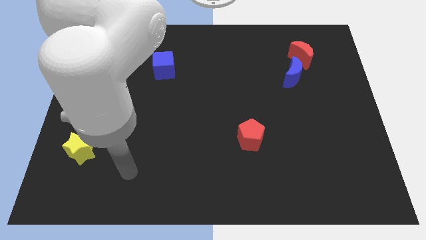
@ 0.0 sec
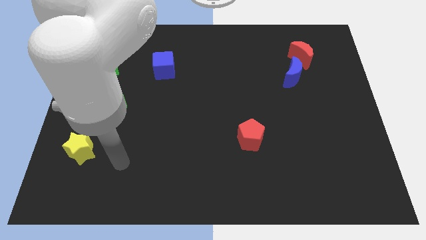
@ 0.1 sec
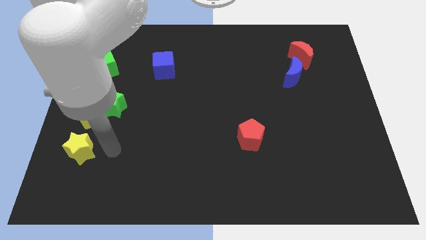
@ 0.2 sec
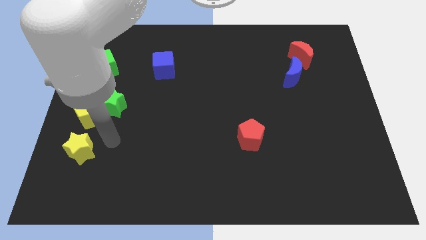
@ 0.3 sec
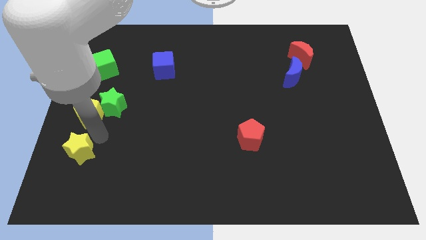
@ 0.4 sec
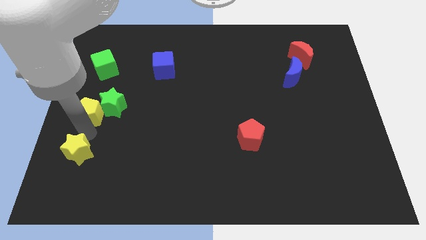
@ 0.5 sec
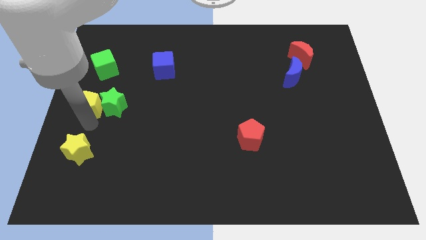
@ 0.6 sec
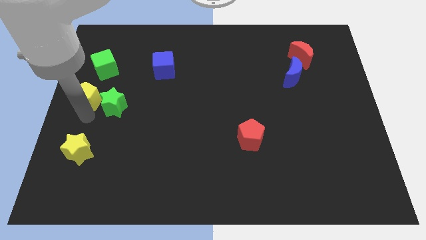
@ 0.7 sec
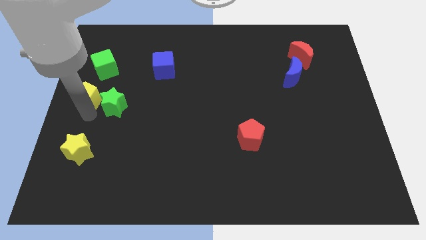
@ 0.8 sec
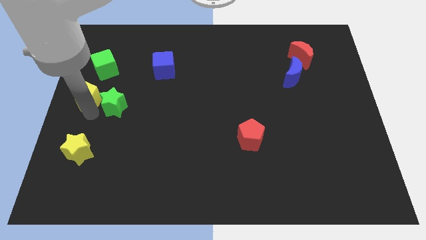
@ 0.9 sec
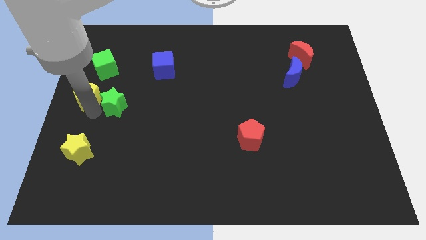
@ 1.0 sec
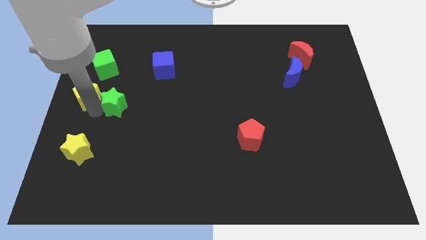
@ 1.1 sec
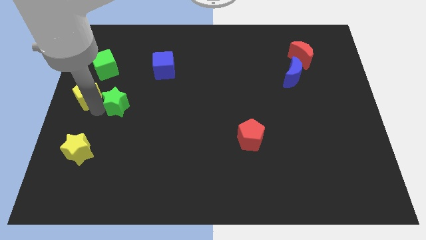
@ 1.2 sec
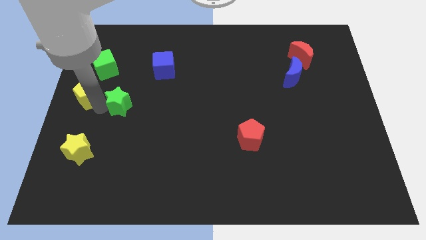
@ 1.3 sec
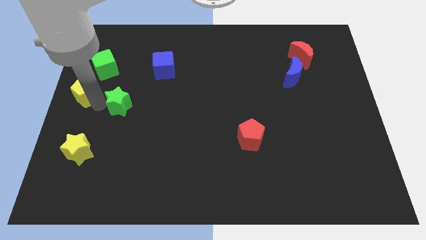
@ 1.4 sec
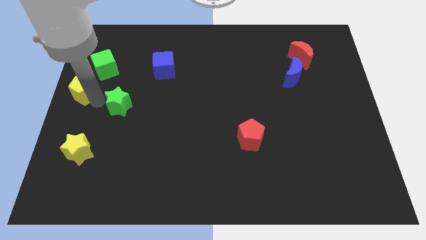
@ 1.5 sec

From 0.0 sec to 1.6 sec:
move the green star away from the yellow pentagon

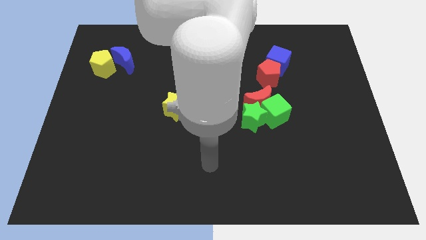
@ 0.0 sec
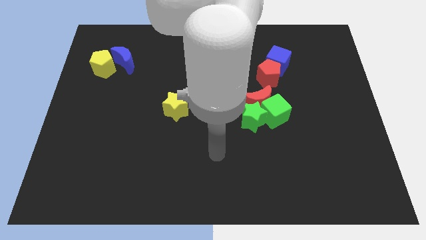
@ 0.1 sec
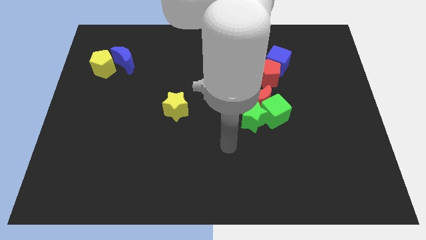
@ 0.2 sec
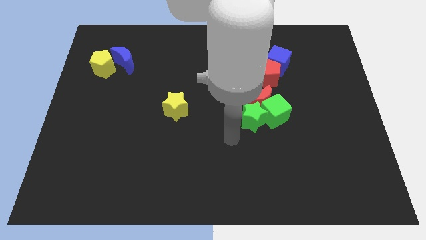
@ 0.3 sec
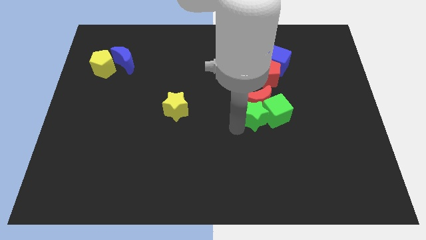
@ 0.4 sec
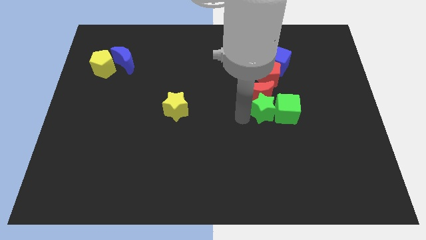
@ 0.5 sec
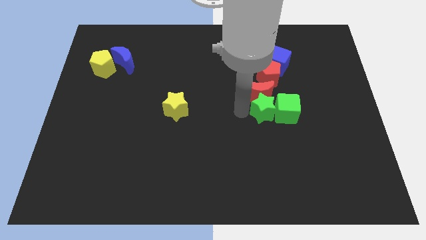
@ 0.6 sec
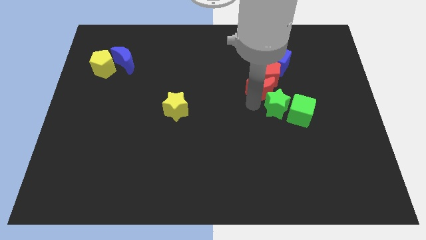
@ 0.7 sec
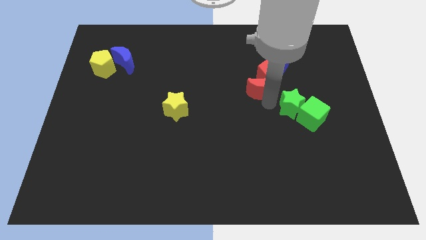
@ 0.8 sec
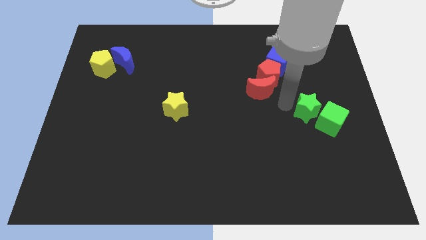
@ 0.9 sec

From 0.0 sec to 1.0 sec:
move the green cube away from the red moon and green star

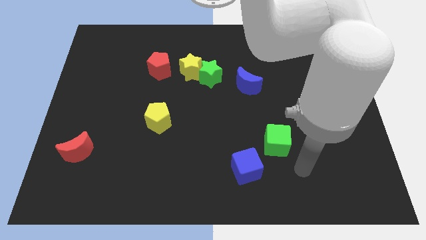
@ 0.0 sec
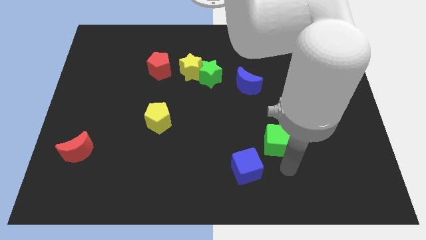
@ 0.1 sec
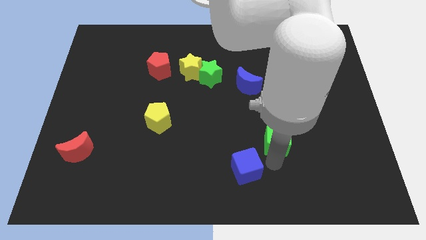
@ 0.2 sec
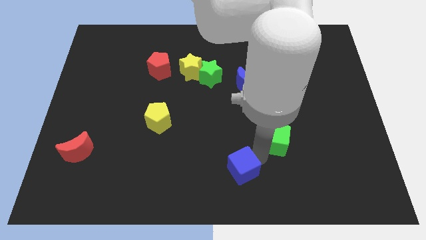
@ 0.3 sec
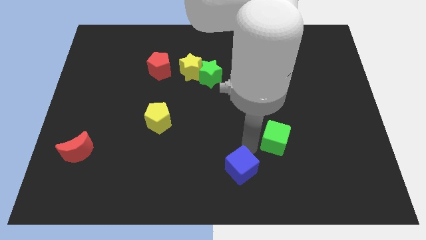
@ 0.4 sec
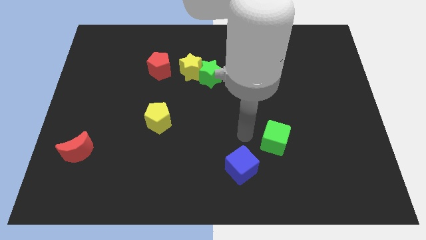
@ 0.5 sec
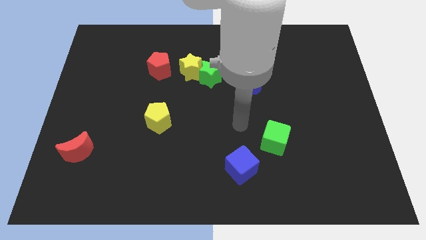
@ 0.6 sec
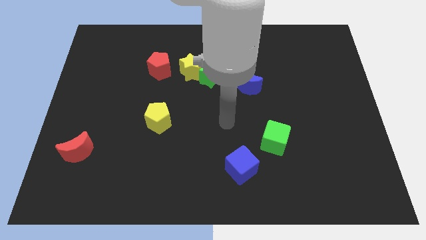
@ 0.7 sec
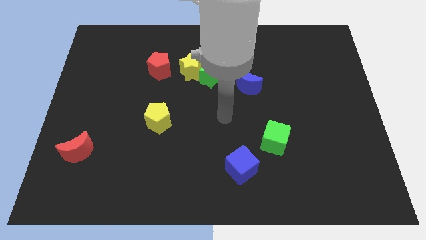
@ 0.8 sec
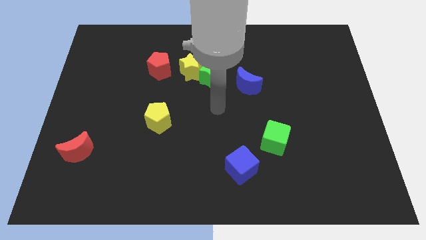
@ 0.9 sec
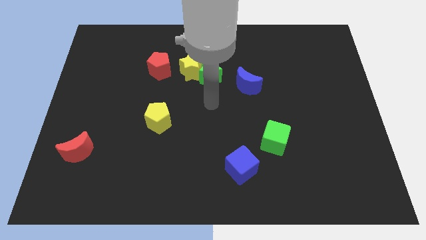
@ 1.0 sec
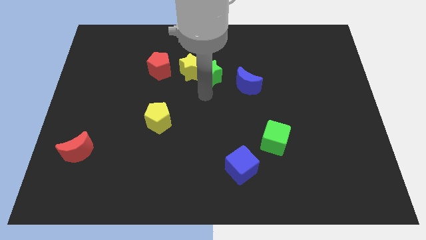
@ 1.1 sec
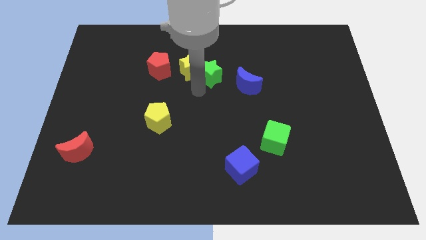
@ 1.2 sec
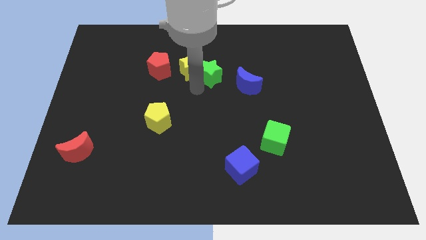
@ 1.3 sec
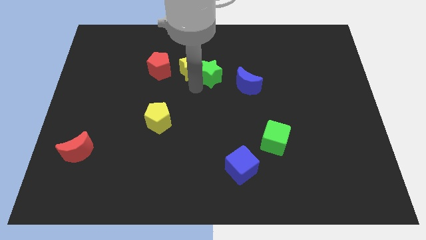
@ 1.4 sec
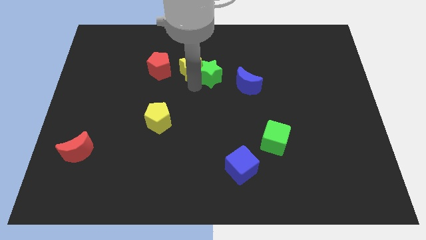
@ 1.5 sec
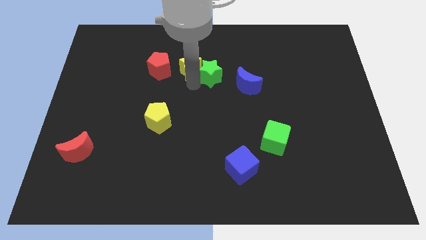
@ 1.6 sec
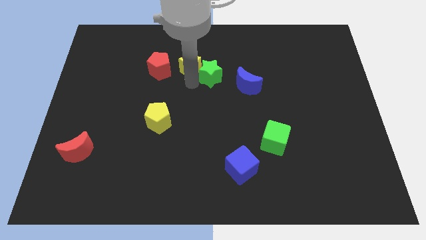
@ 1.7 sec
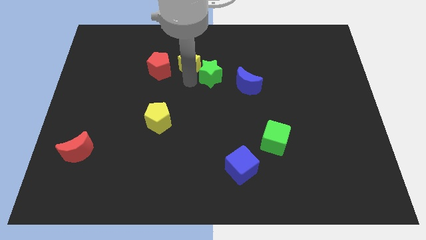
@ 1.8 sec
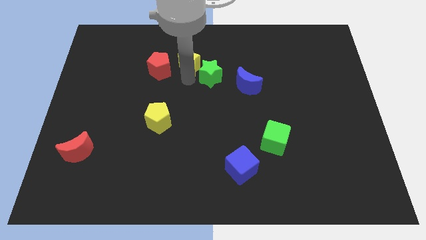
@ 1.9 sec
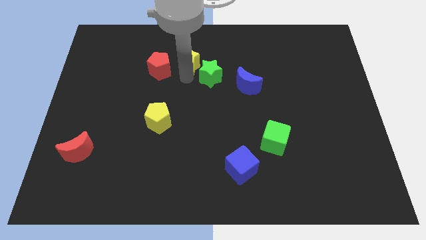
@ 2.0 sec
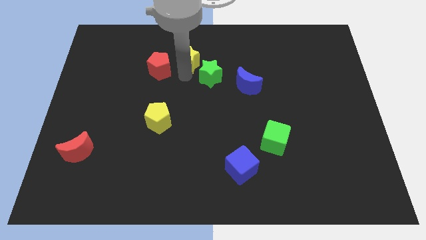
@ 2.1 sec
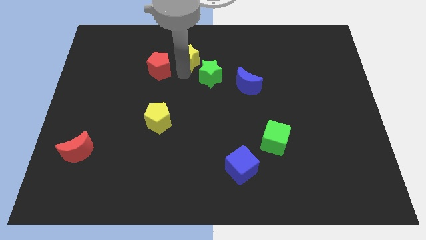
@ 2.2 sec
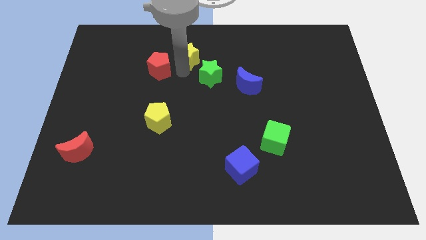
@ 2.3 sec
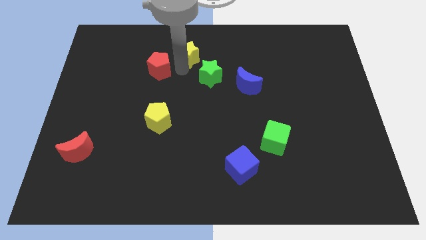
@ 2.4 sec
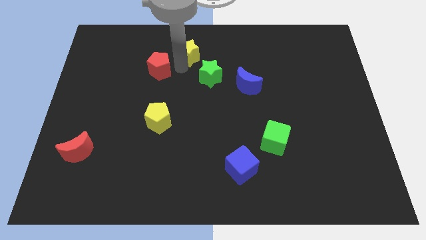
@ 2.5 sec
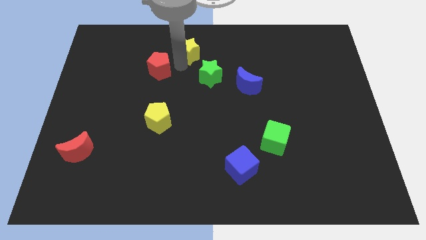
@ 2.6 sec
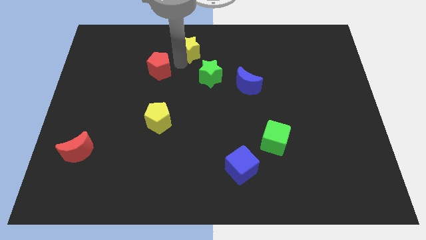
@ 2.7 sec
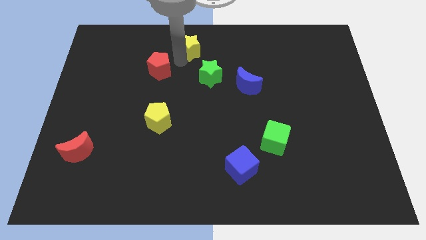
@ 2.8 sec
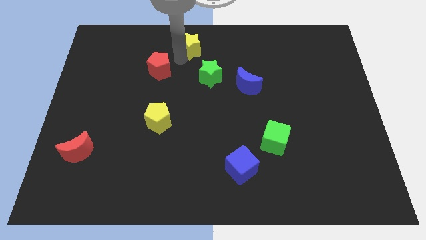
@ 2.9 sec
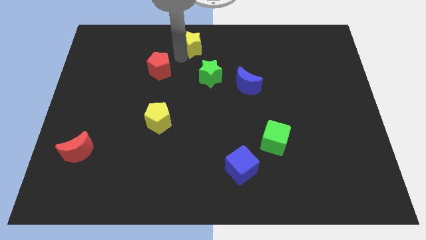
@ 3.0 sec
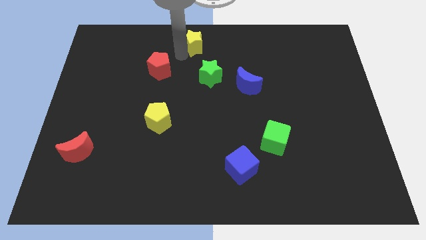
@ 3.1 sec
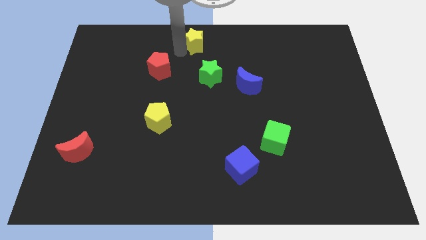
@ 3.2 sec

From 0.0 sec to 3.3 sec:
separate the yellow star from the green star and red pentagon

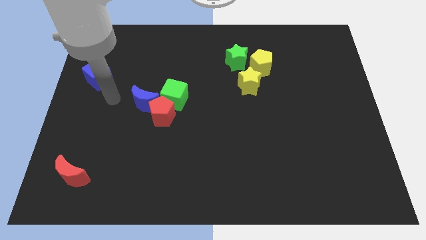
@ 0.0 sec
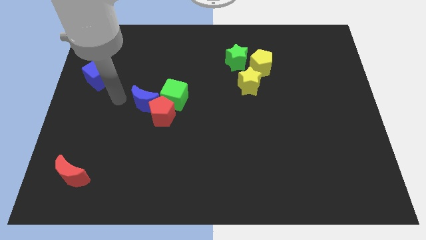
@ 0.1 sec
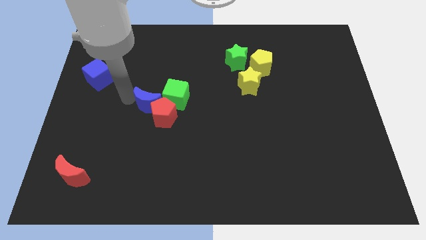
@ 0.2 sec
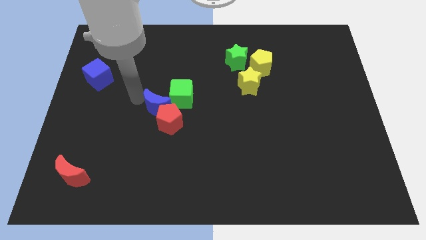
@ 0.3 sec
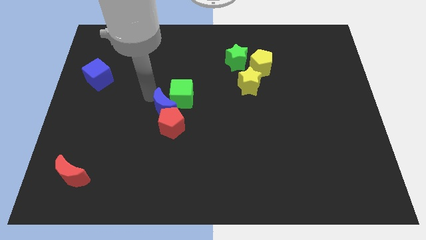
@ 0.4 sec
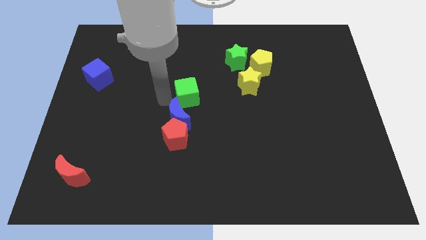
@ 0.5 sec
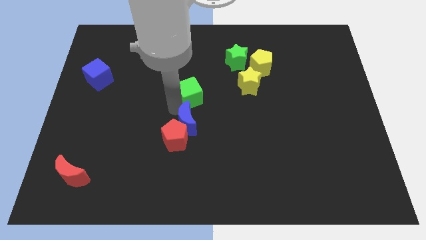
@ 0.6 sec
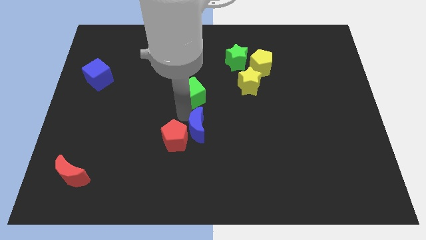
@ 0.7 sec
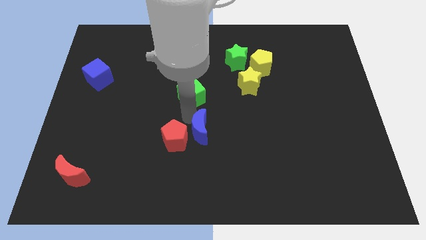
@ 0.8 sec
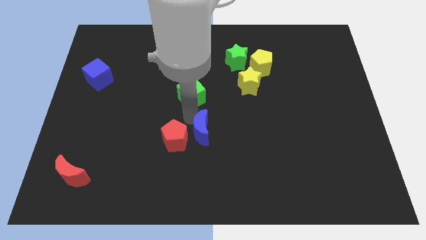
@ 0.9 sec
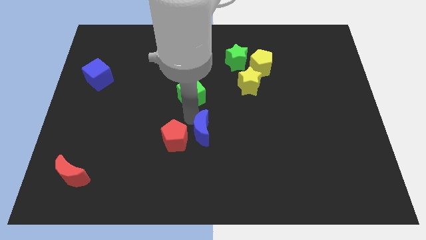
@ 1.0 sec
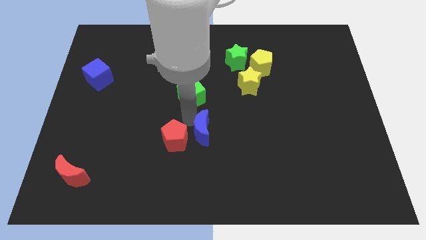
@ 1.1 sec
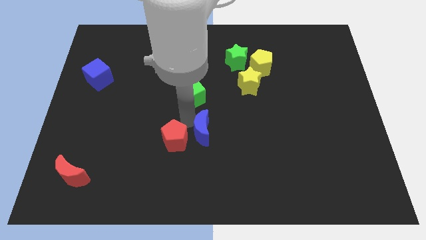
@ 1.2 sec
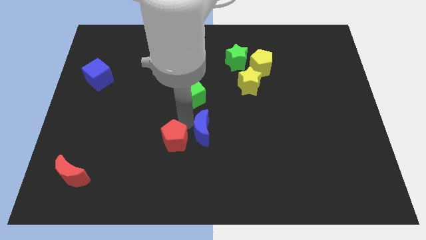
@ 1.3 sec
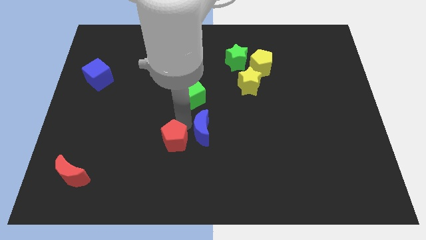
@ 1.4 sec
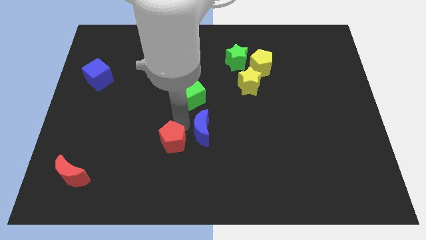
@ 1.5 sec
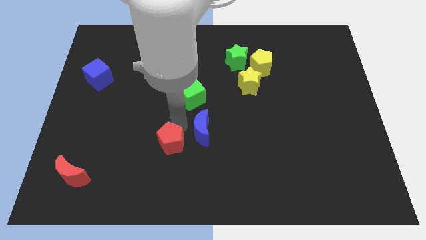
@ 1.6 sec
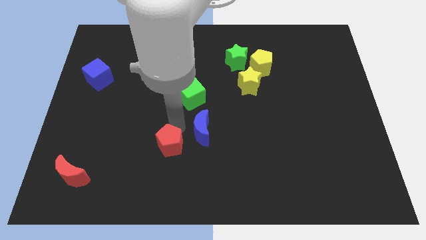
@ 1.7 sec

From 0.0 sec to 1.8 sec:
pull the red pentagon apart from the blue moon and green cube

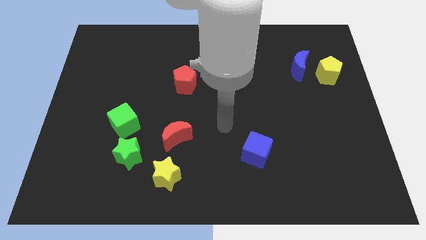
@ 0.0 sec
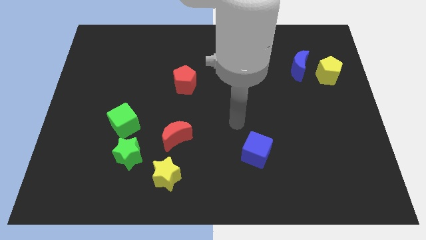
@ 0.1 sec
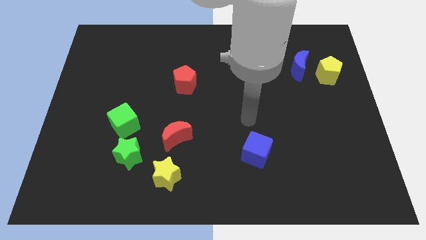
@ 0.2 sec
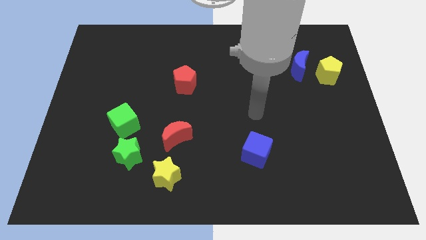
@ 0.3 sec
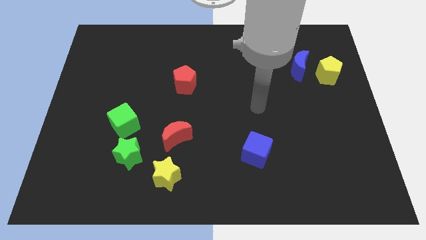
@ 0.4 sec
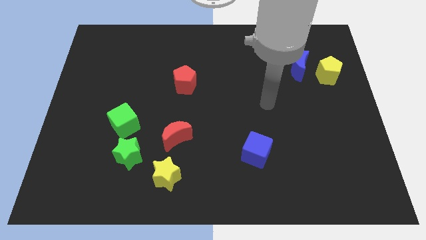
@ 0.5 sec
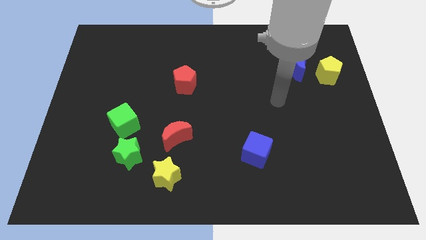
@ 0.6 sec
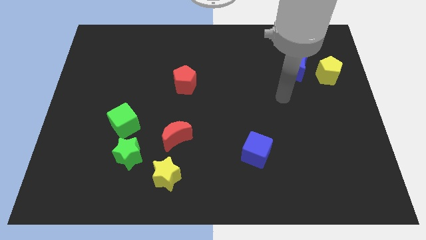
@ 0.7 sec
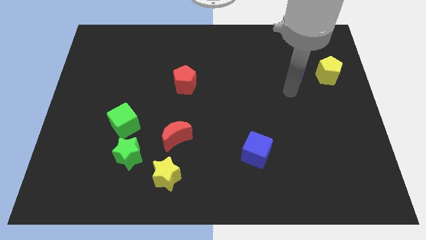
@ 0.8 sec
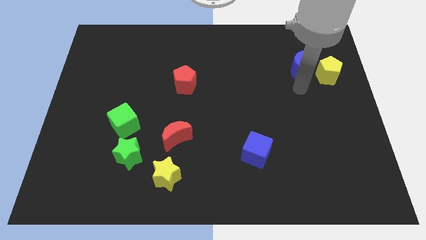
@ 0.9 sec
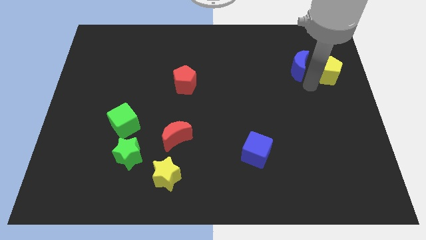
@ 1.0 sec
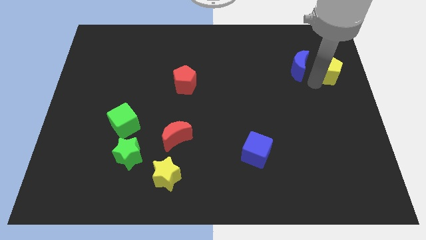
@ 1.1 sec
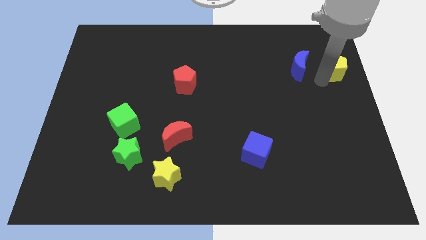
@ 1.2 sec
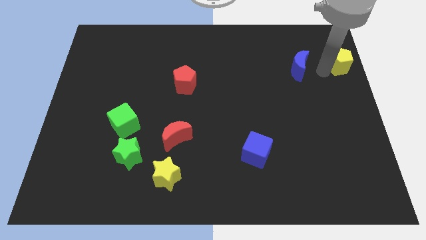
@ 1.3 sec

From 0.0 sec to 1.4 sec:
move the blue moon away from the yellow pentagon
